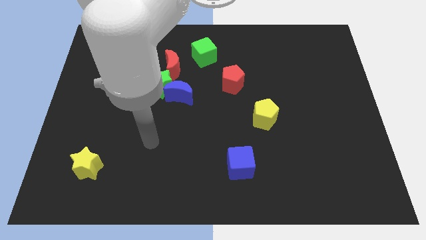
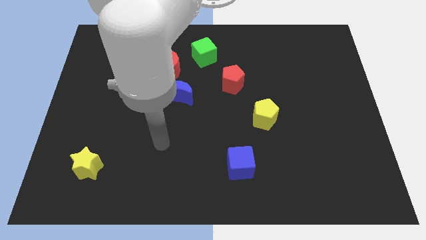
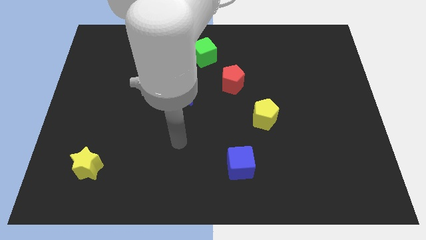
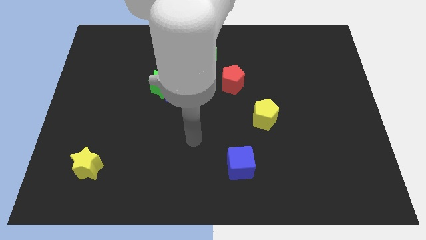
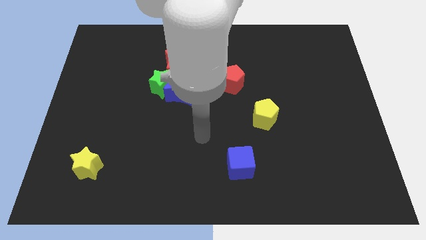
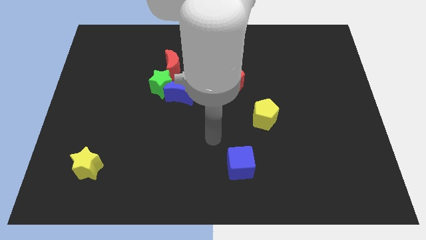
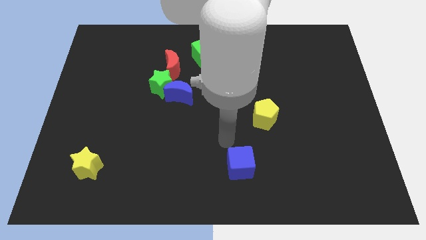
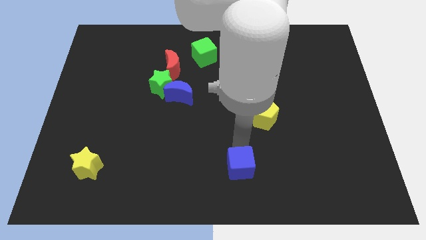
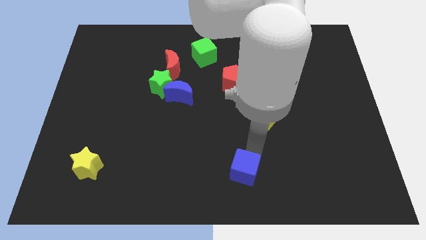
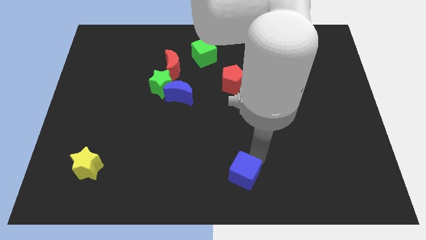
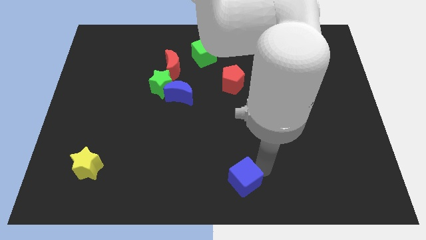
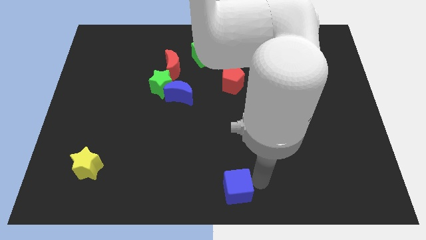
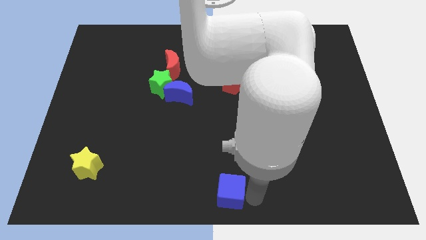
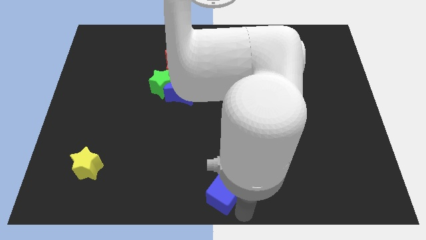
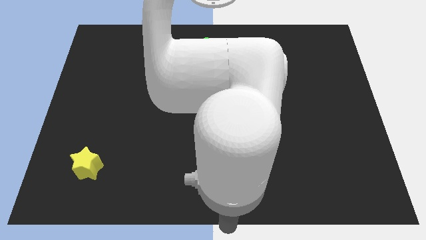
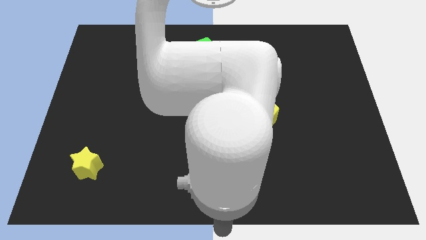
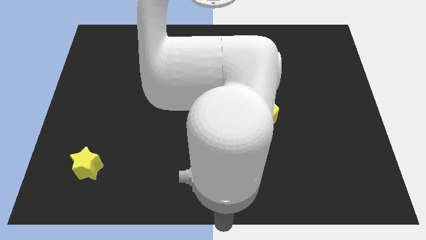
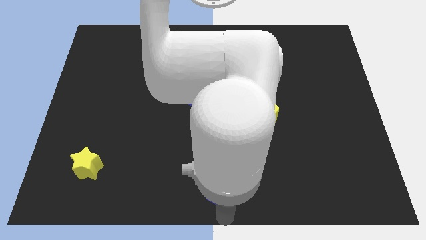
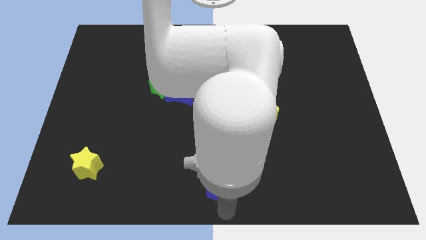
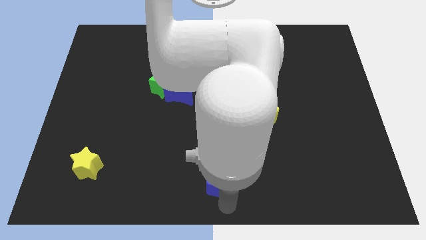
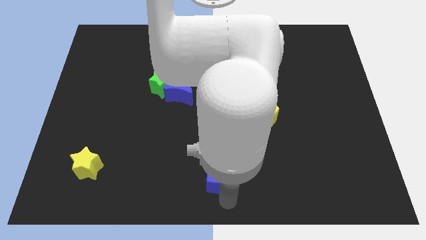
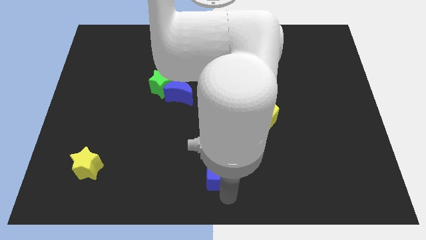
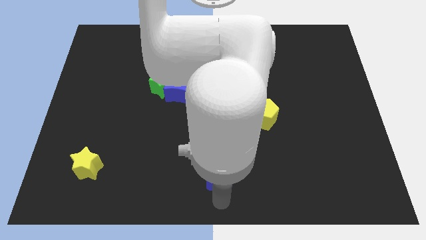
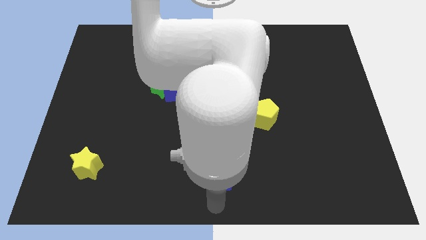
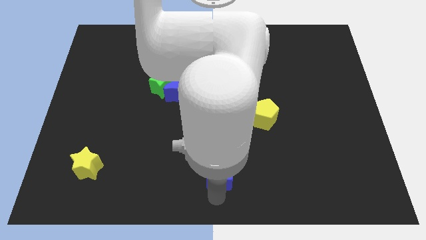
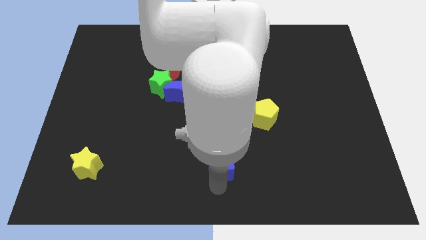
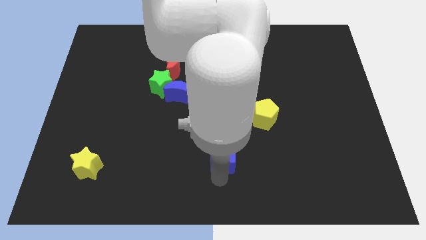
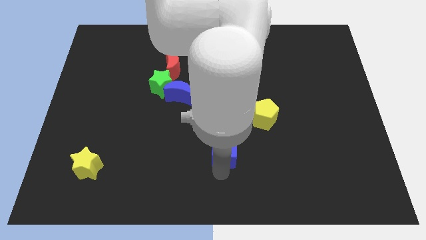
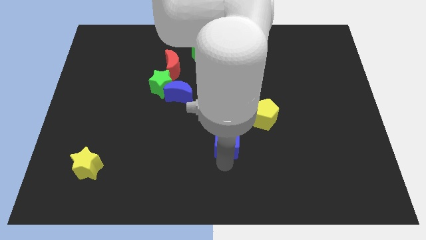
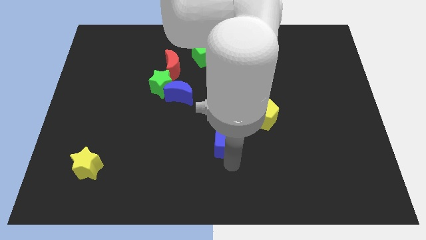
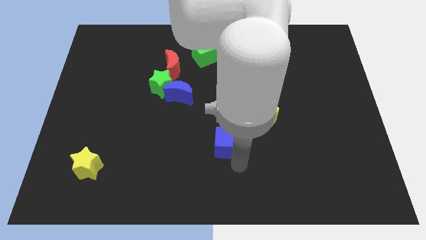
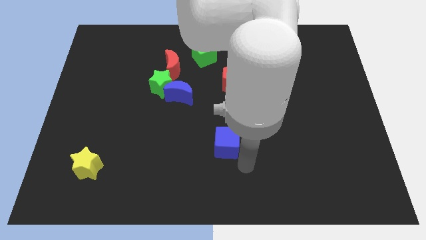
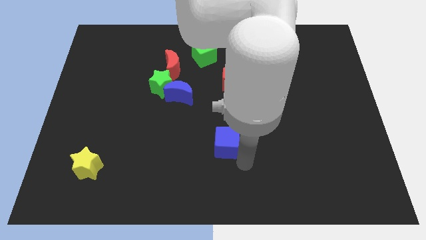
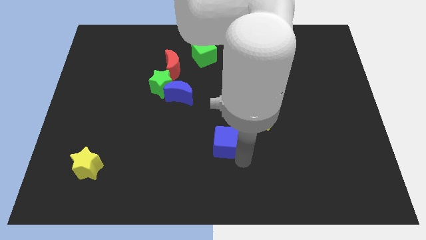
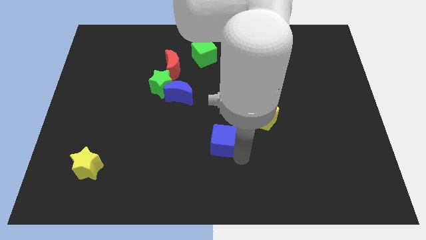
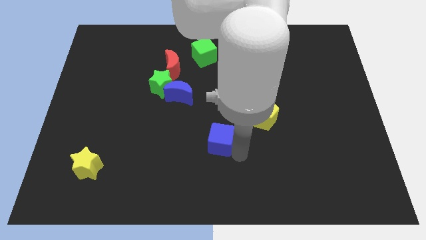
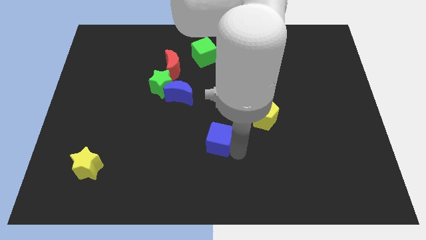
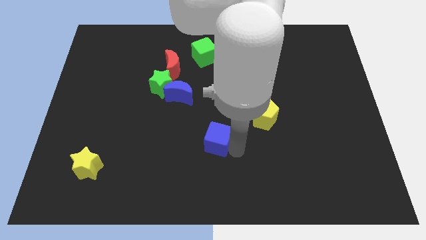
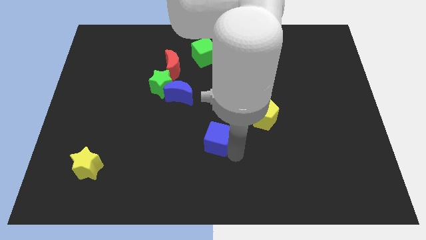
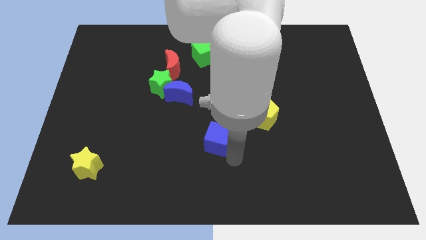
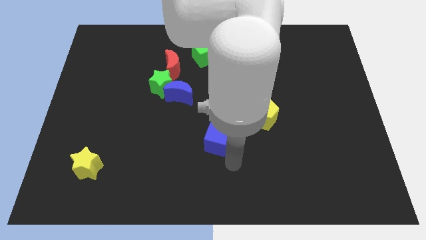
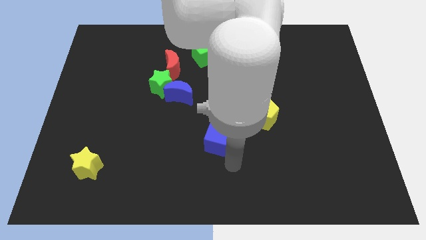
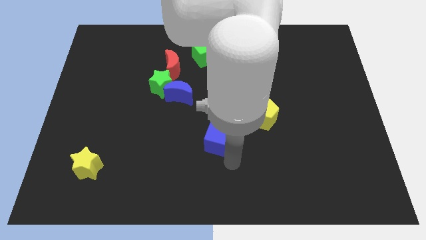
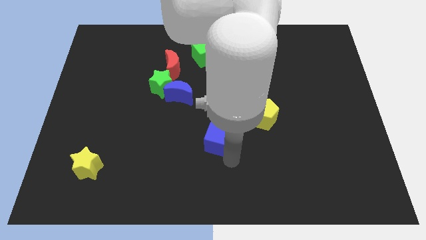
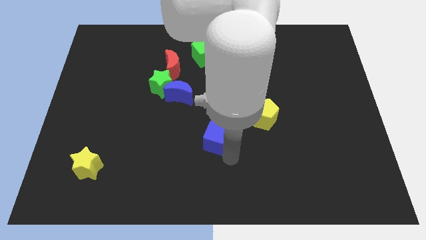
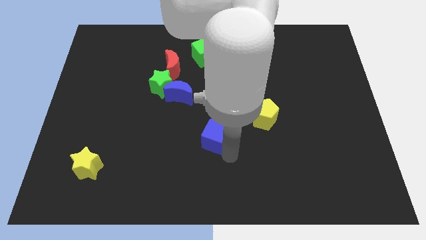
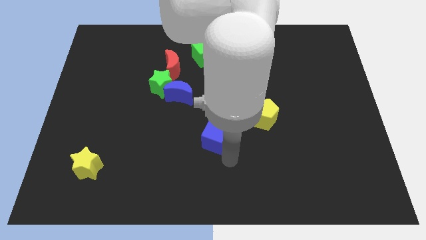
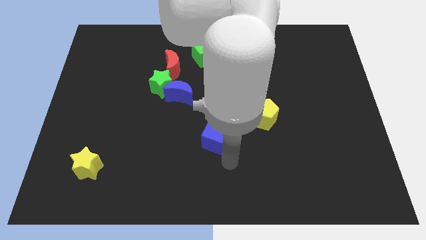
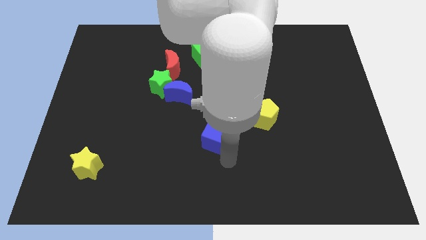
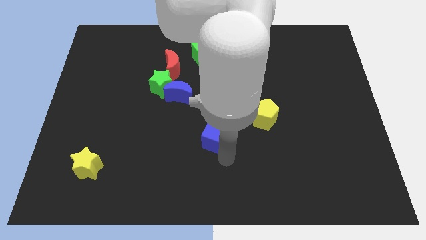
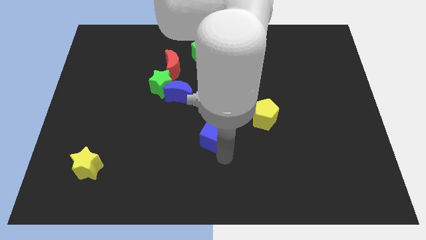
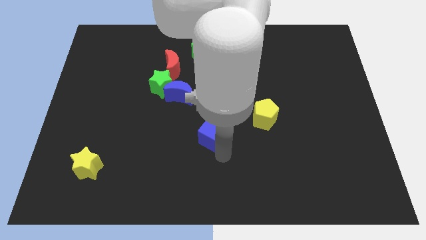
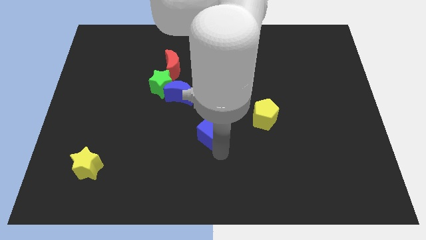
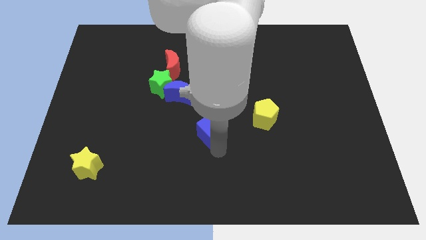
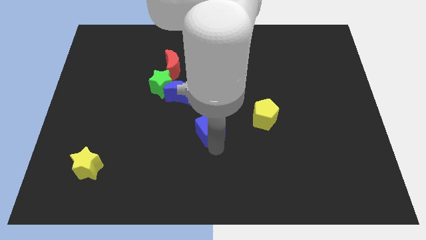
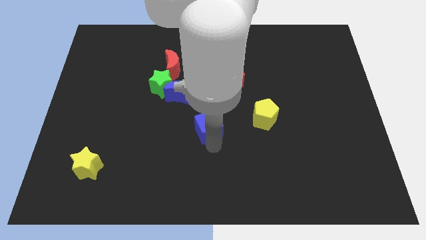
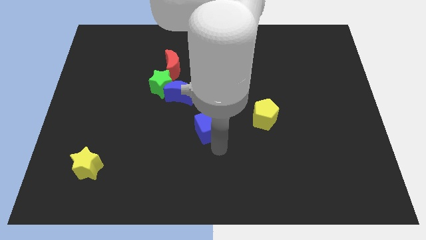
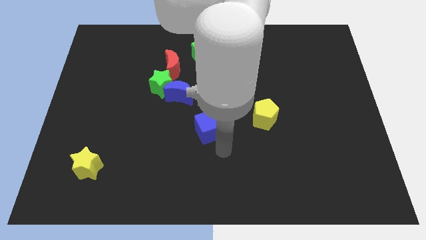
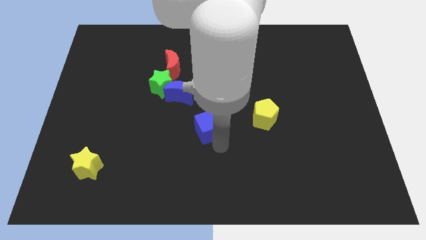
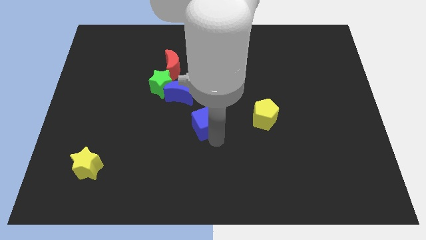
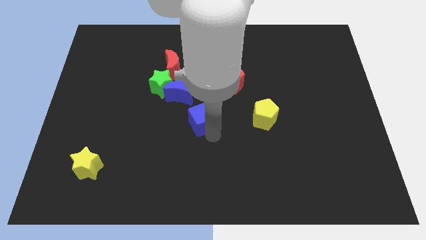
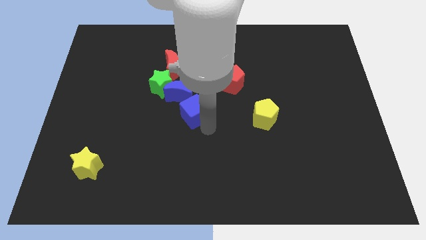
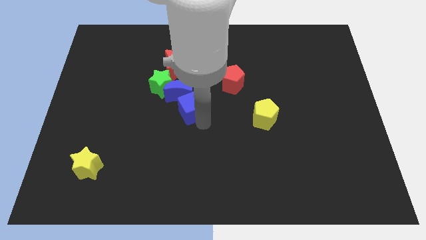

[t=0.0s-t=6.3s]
slide the blue cube next to the blue moon

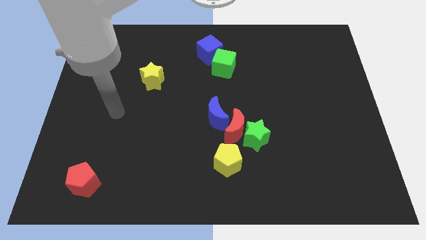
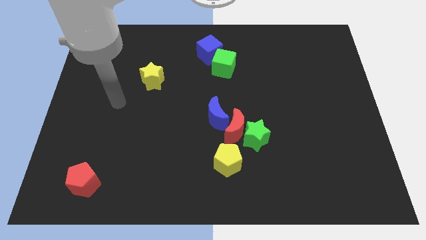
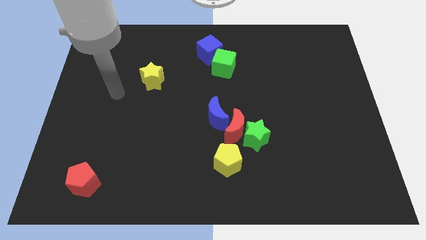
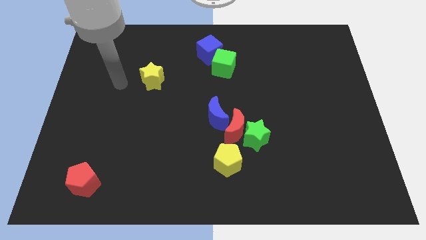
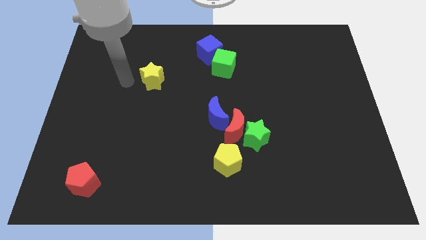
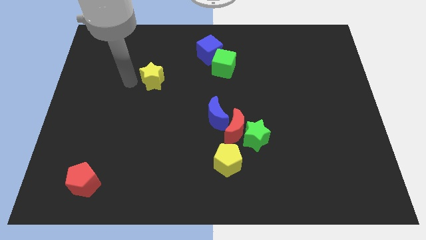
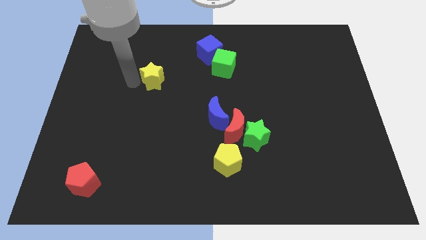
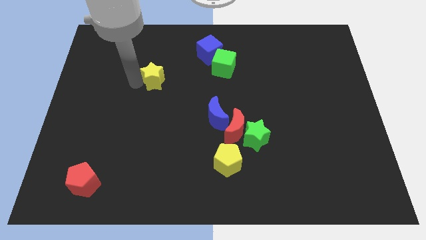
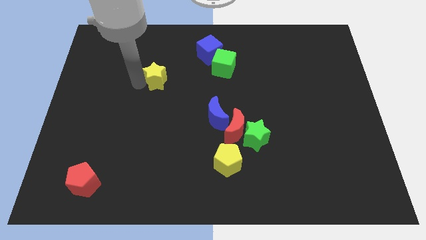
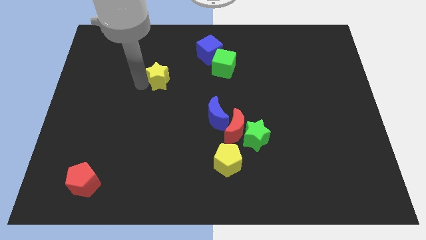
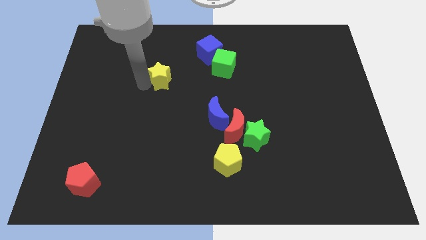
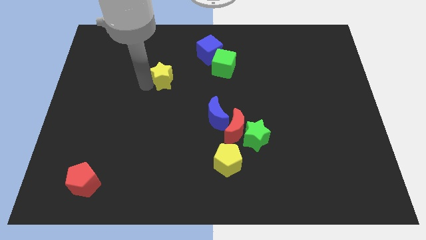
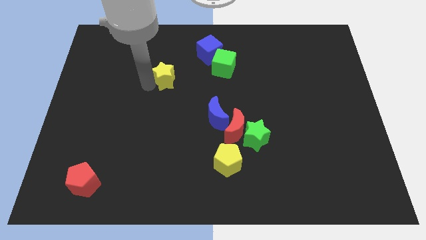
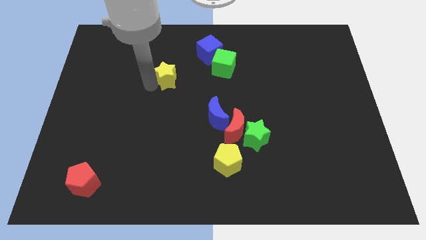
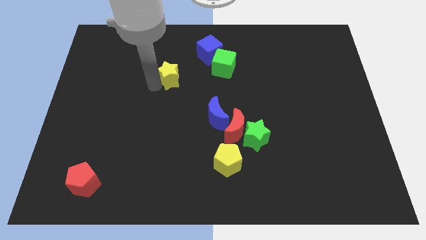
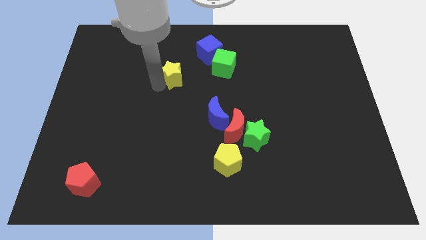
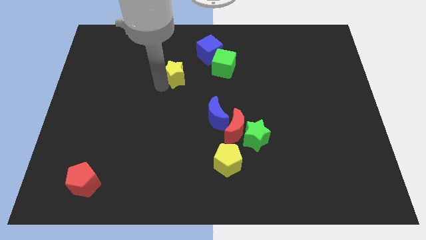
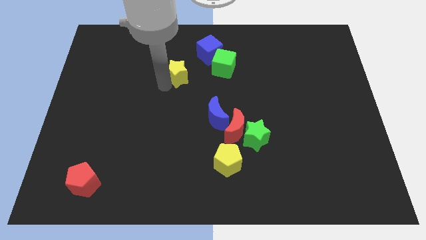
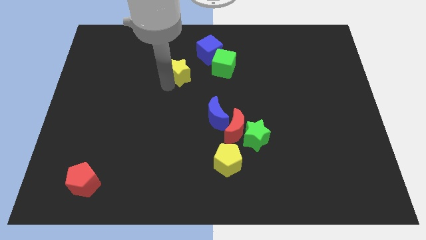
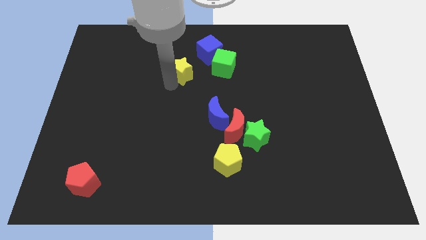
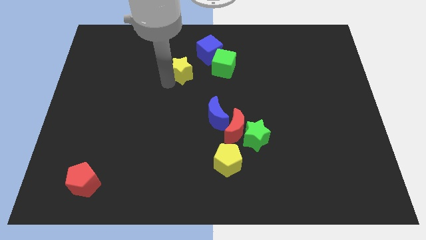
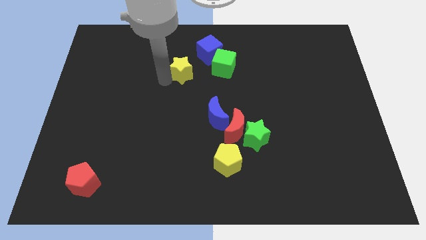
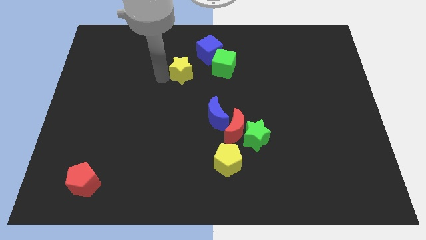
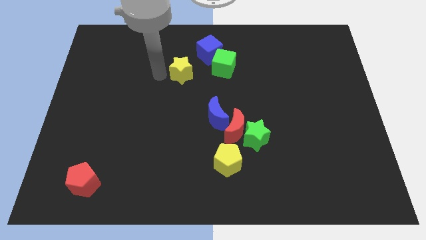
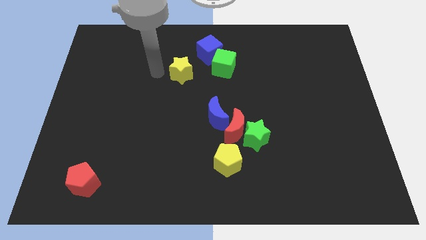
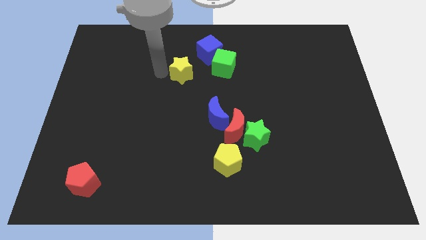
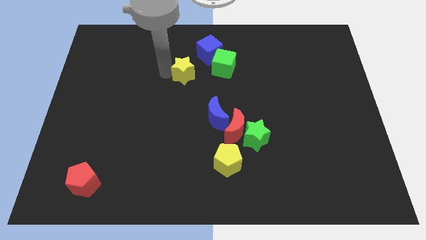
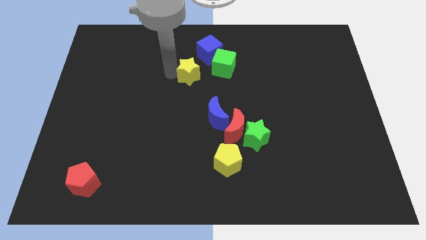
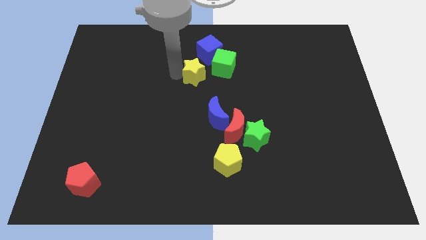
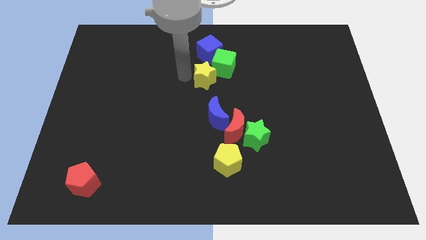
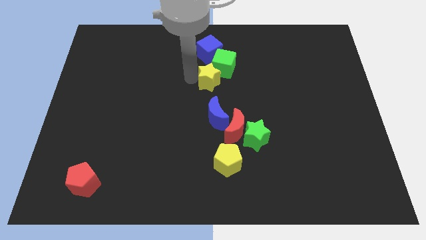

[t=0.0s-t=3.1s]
put the yellow star to the green cube
